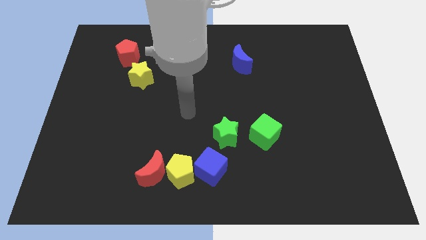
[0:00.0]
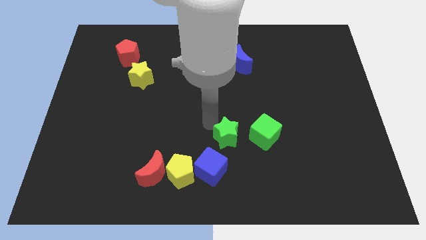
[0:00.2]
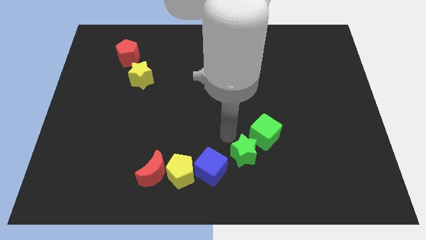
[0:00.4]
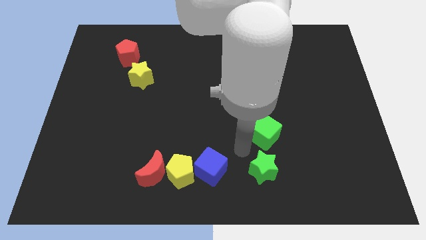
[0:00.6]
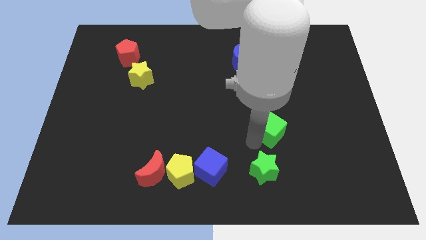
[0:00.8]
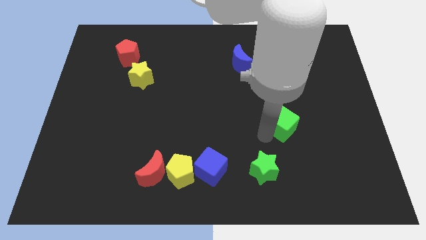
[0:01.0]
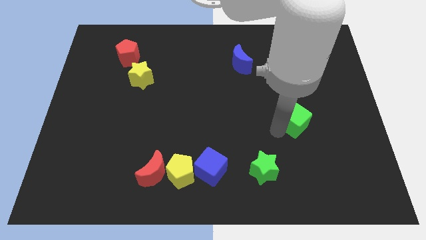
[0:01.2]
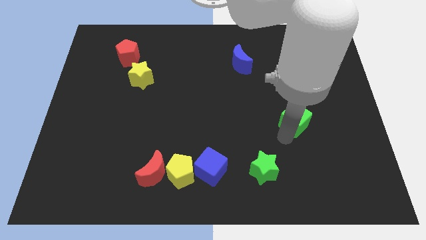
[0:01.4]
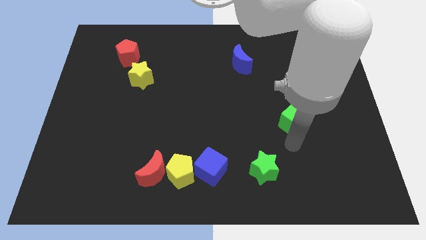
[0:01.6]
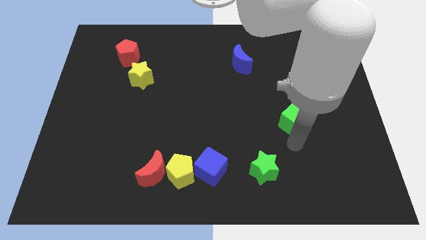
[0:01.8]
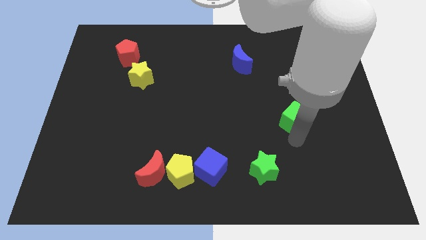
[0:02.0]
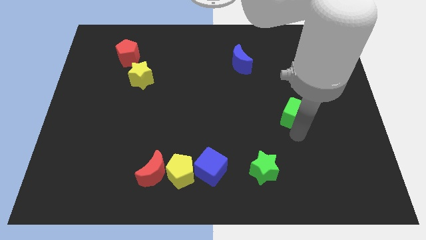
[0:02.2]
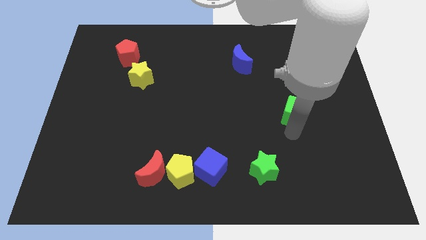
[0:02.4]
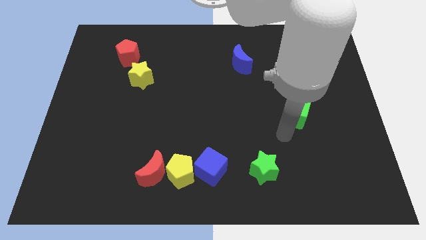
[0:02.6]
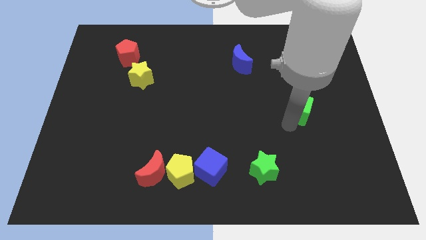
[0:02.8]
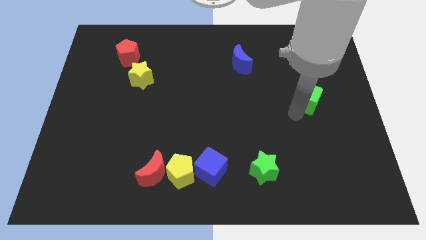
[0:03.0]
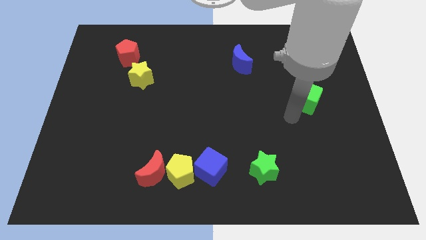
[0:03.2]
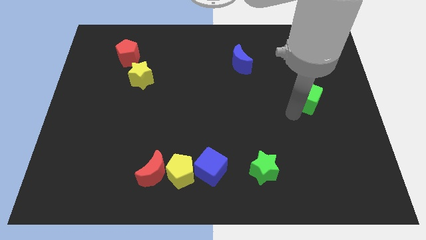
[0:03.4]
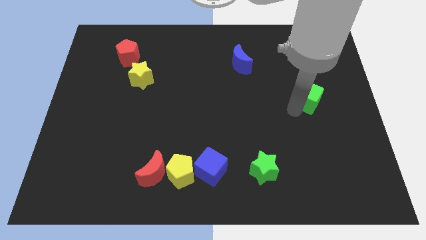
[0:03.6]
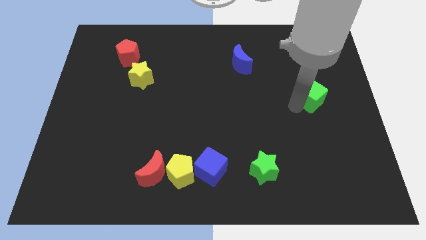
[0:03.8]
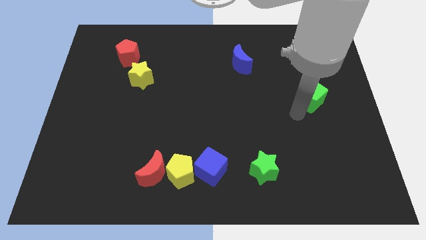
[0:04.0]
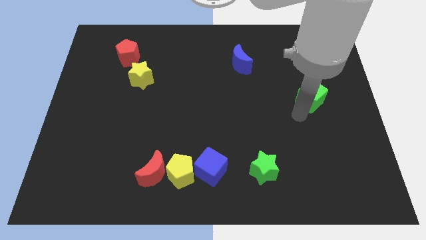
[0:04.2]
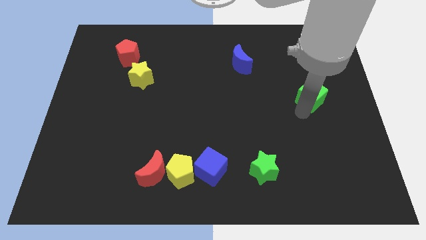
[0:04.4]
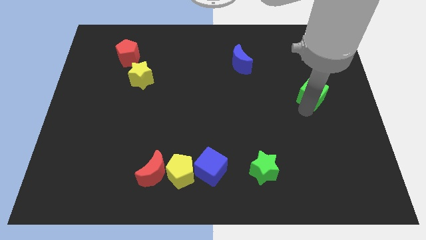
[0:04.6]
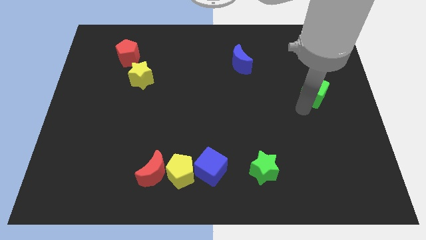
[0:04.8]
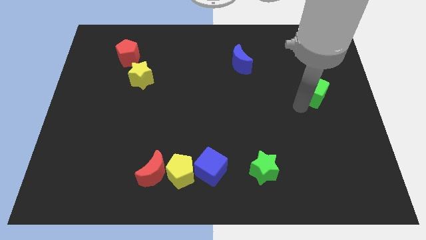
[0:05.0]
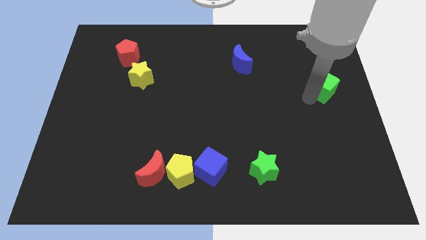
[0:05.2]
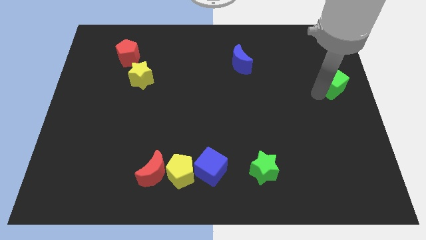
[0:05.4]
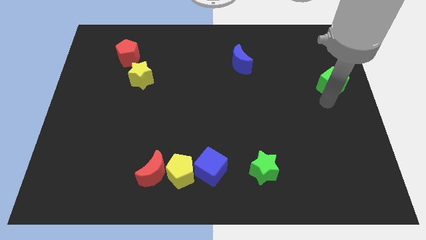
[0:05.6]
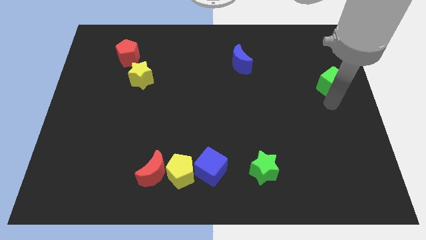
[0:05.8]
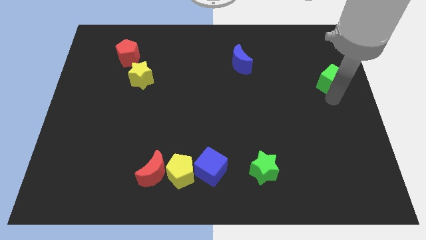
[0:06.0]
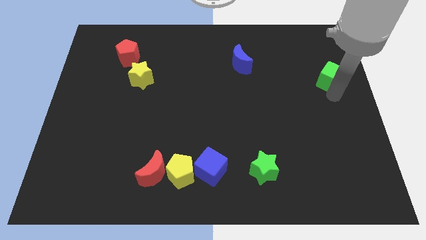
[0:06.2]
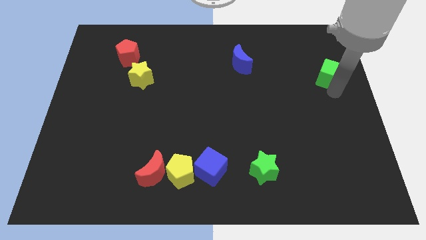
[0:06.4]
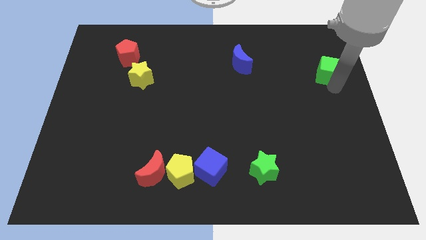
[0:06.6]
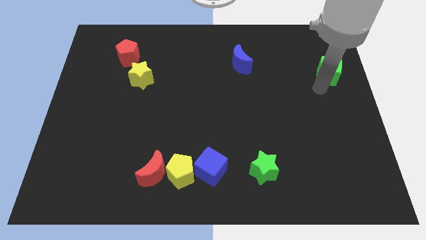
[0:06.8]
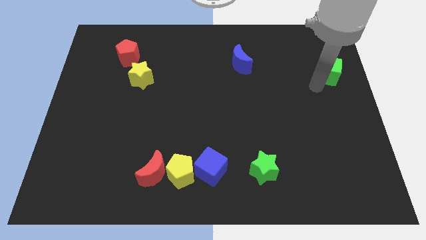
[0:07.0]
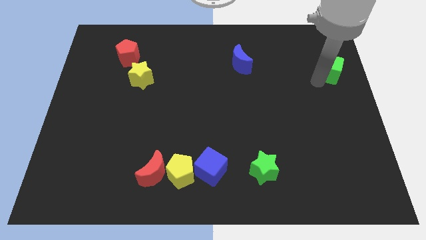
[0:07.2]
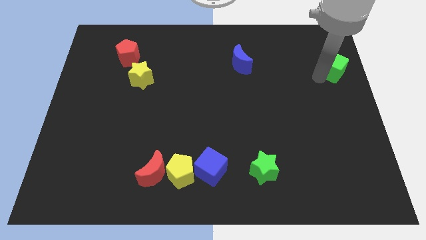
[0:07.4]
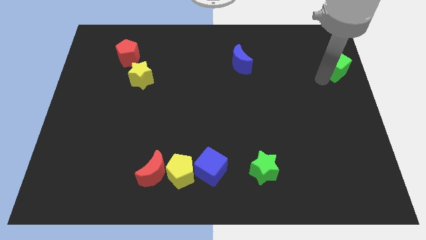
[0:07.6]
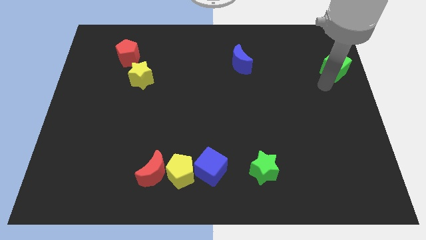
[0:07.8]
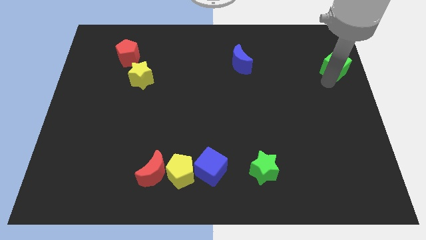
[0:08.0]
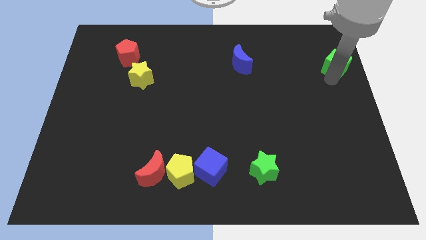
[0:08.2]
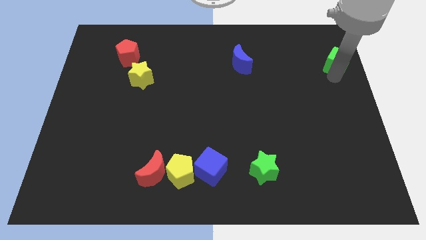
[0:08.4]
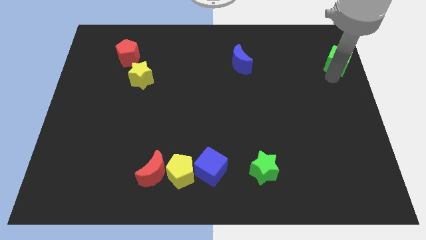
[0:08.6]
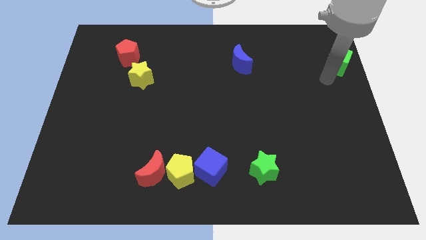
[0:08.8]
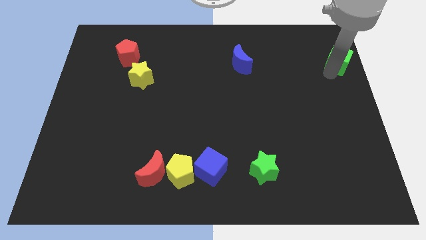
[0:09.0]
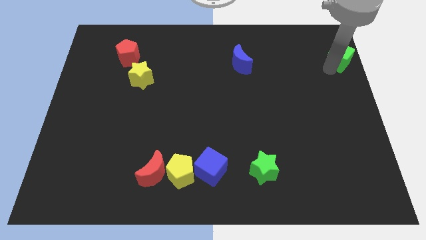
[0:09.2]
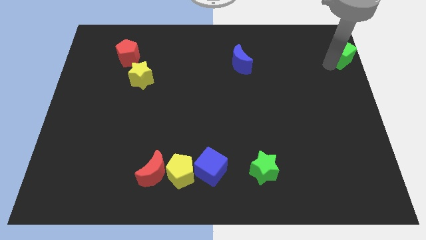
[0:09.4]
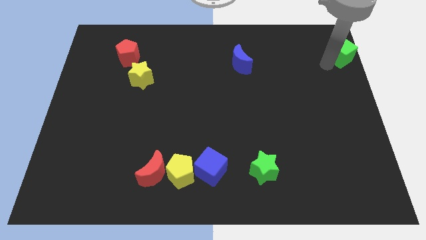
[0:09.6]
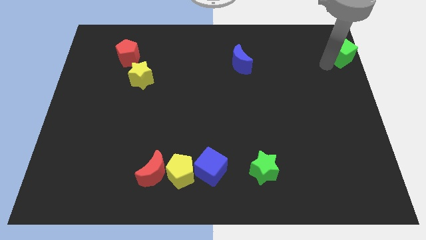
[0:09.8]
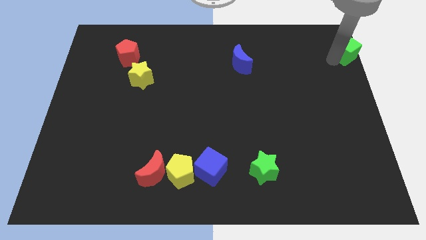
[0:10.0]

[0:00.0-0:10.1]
move the green cube to the top right
